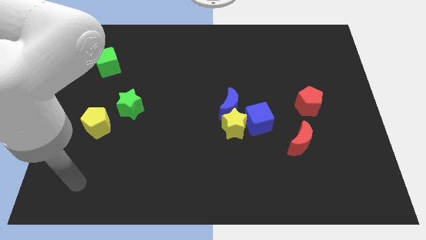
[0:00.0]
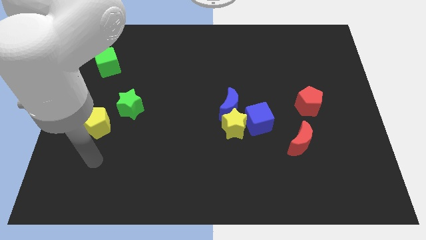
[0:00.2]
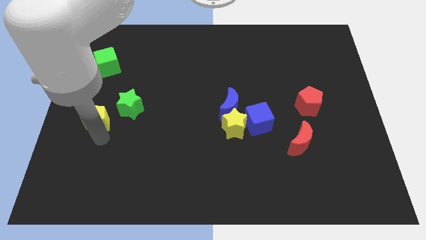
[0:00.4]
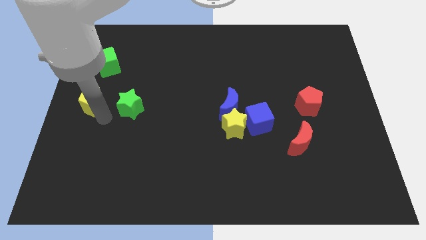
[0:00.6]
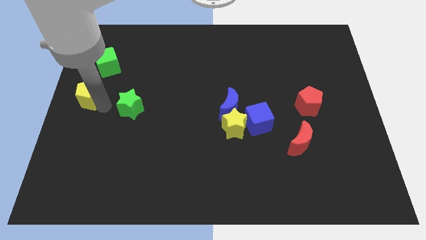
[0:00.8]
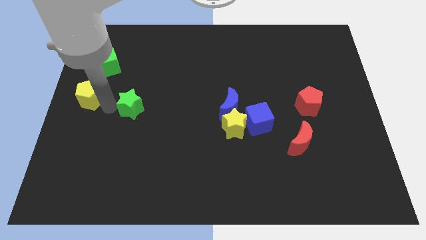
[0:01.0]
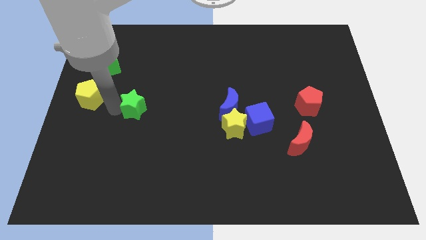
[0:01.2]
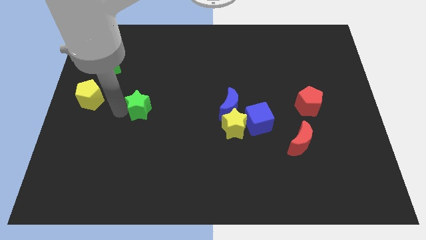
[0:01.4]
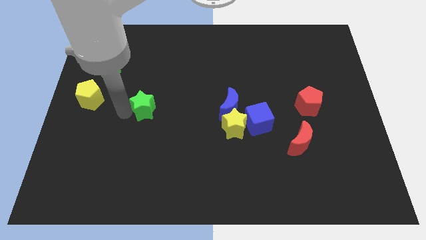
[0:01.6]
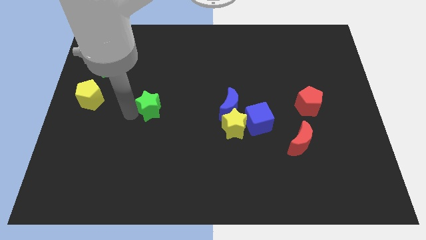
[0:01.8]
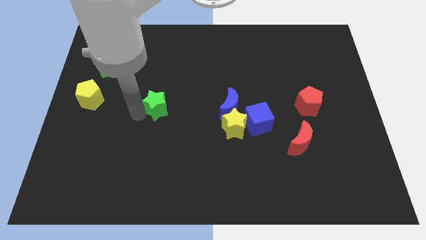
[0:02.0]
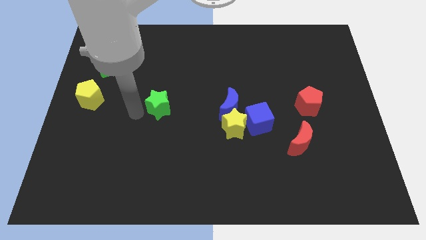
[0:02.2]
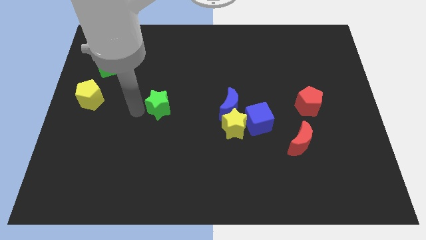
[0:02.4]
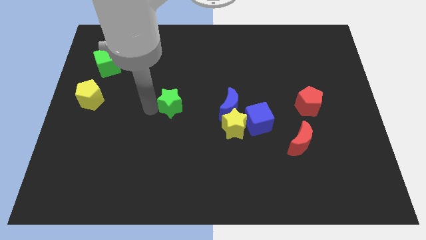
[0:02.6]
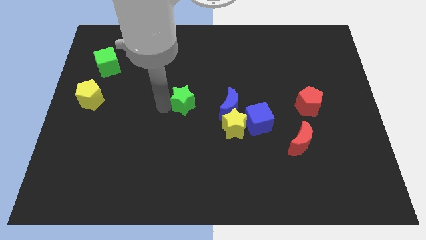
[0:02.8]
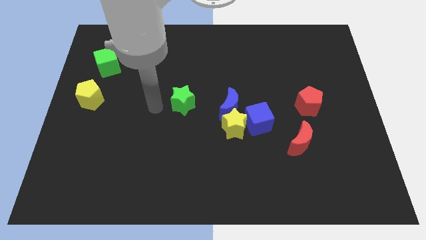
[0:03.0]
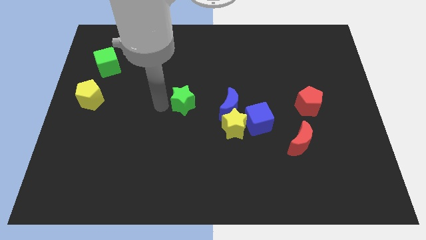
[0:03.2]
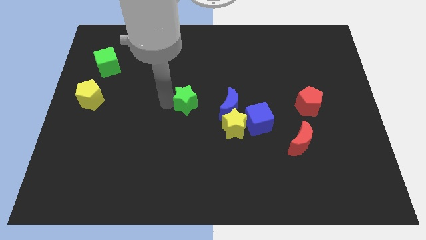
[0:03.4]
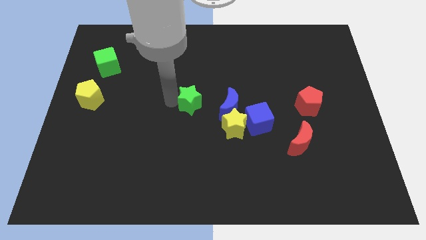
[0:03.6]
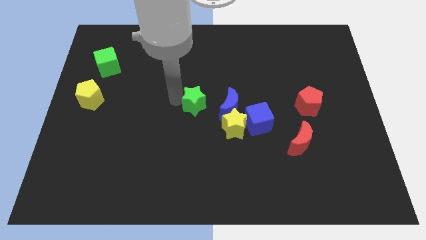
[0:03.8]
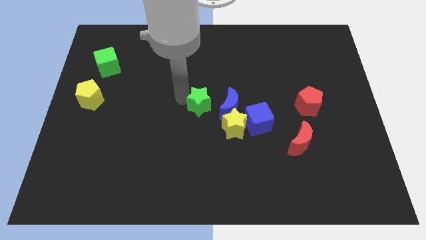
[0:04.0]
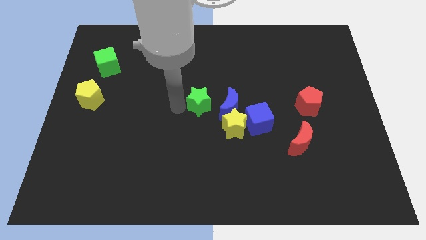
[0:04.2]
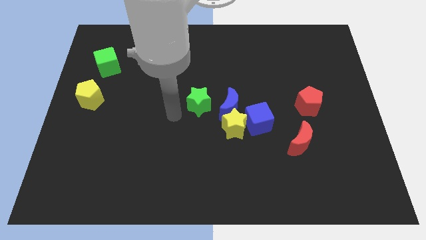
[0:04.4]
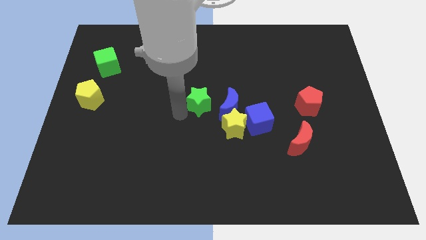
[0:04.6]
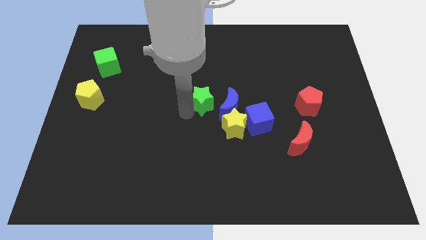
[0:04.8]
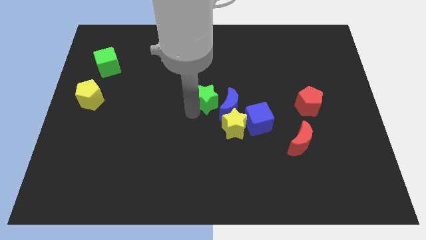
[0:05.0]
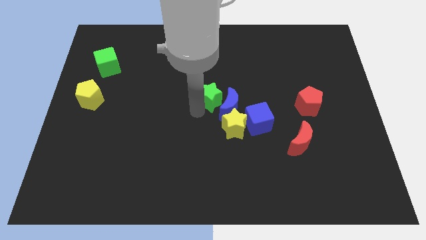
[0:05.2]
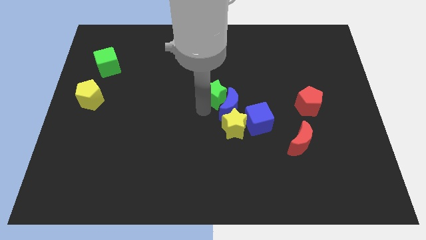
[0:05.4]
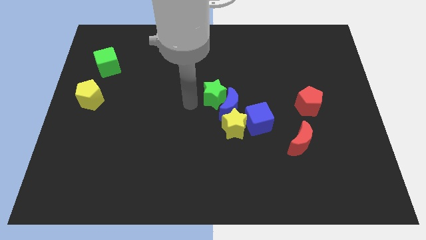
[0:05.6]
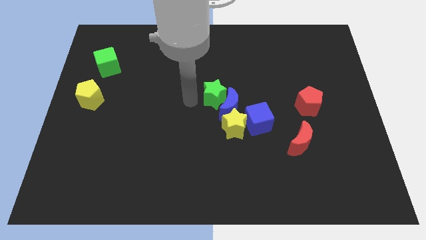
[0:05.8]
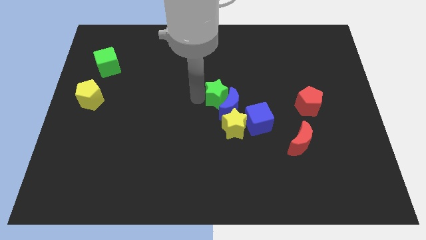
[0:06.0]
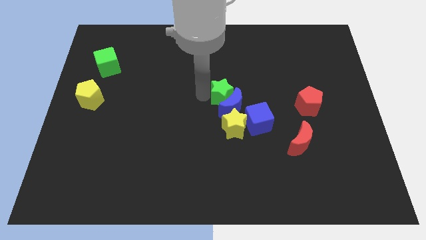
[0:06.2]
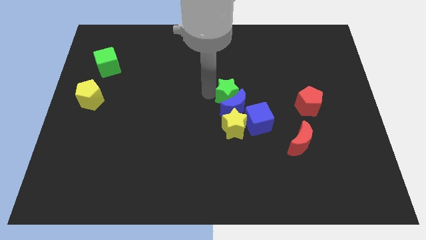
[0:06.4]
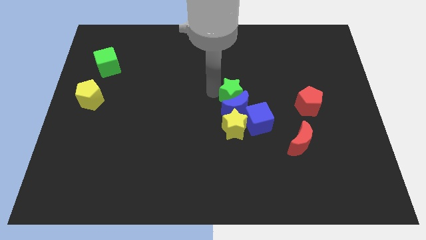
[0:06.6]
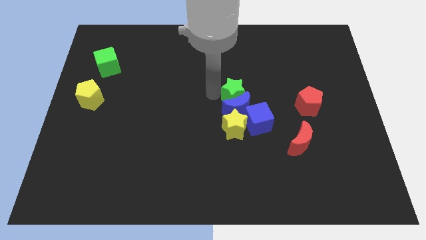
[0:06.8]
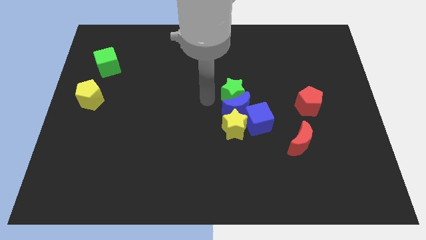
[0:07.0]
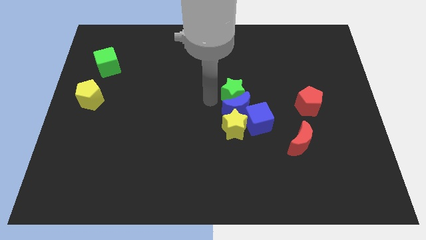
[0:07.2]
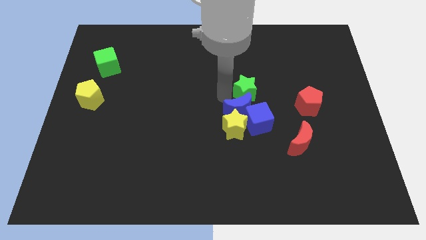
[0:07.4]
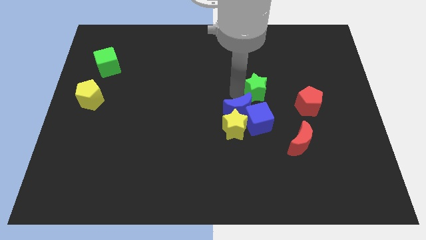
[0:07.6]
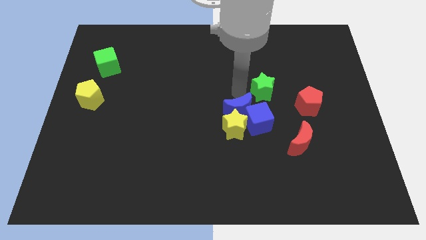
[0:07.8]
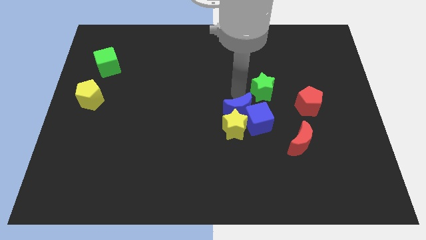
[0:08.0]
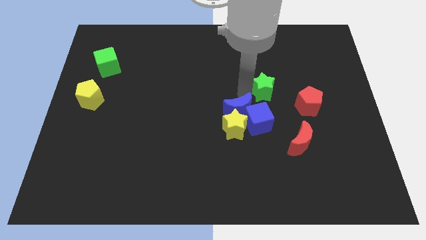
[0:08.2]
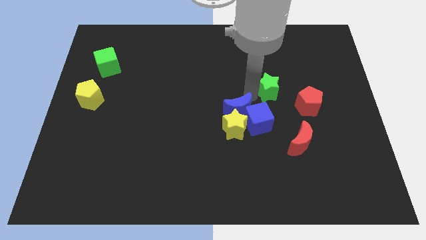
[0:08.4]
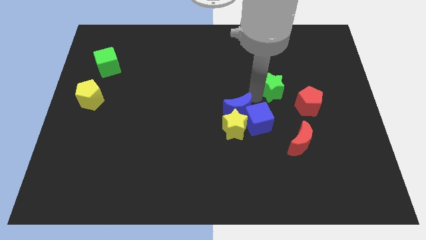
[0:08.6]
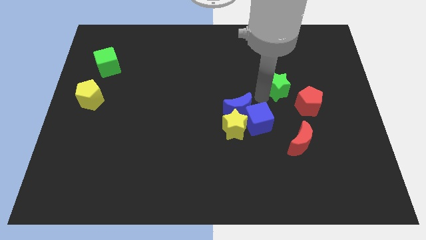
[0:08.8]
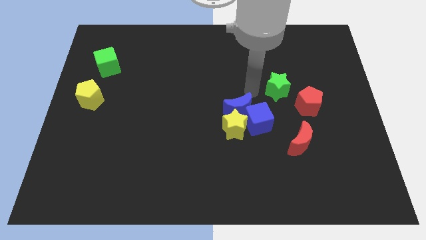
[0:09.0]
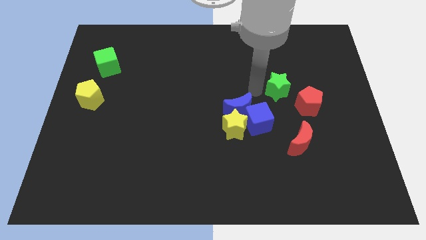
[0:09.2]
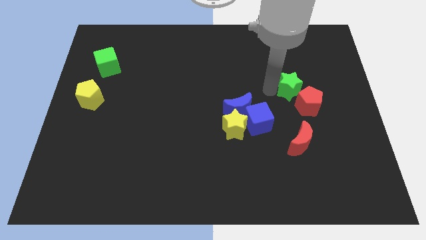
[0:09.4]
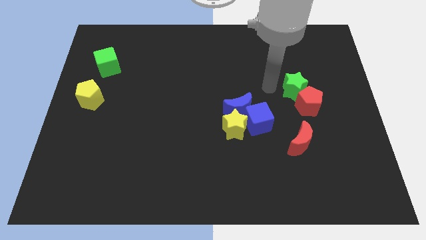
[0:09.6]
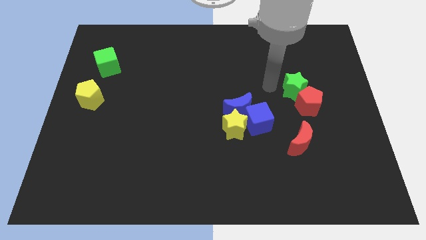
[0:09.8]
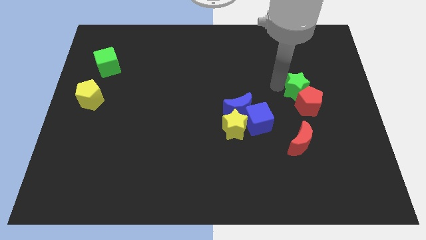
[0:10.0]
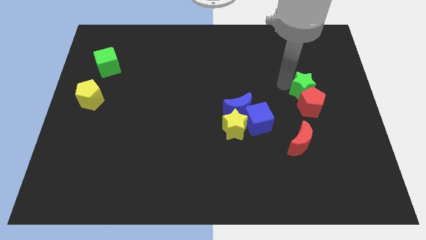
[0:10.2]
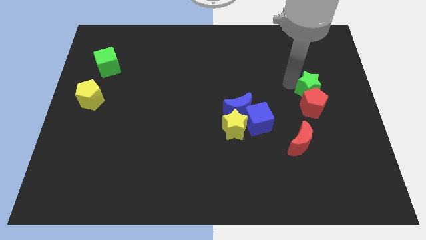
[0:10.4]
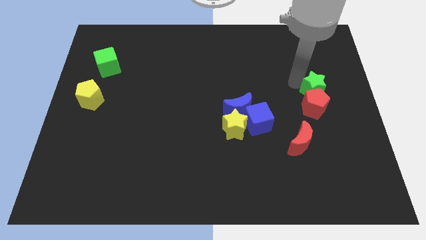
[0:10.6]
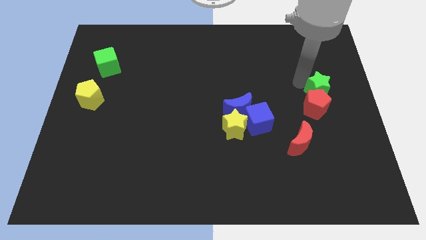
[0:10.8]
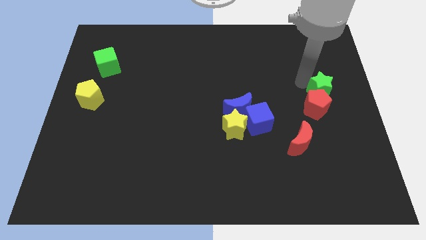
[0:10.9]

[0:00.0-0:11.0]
slide the green star to the center right
